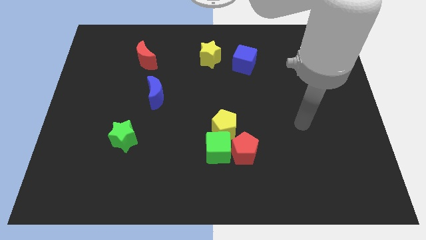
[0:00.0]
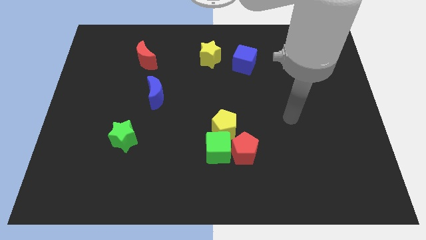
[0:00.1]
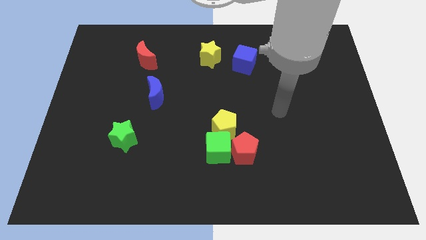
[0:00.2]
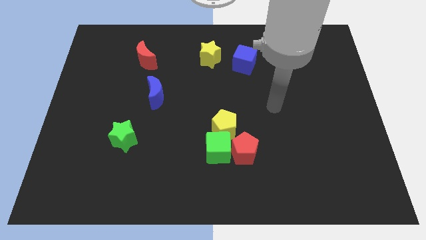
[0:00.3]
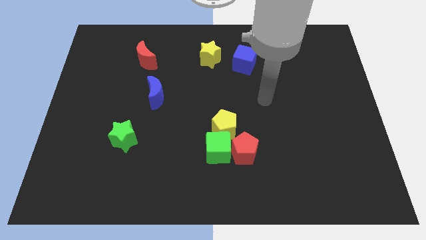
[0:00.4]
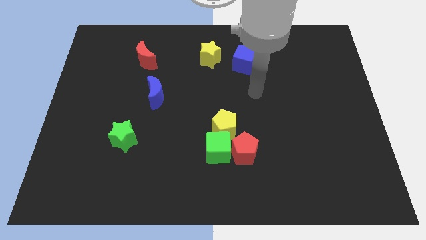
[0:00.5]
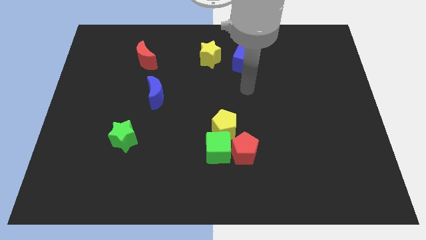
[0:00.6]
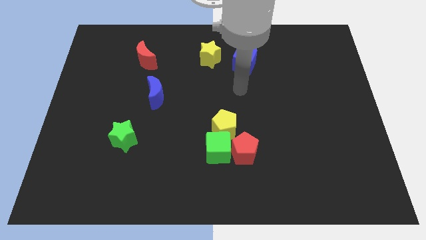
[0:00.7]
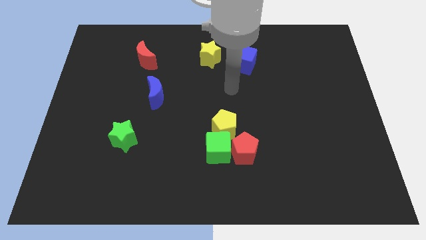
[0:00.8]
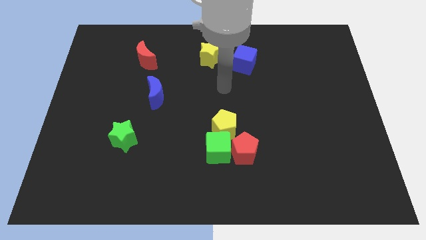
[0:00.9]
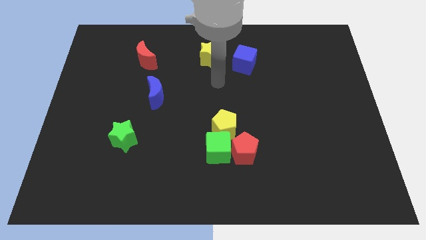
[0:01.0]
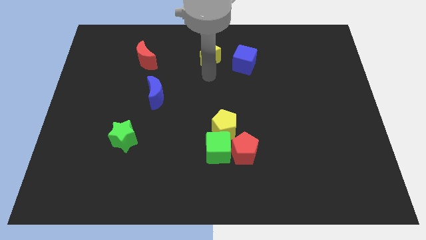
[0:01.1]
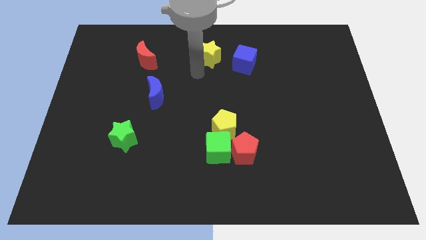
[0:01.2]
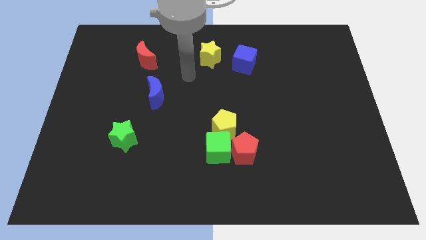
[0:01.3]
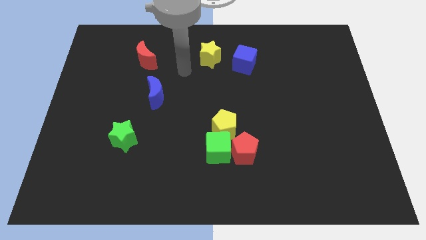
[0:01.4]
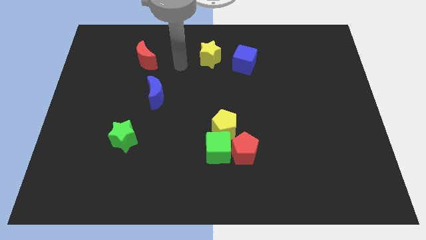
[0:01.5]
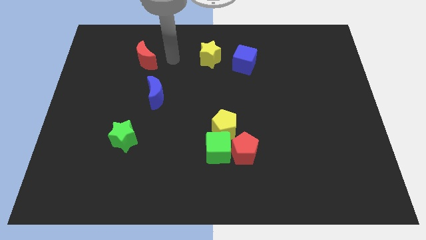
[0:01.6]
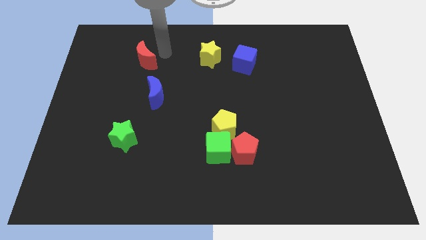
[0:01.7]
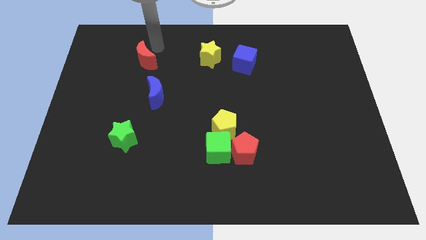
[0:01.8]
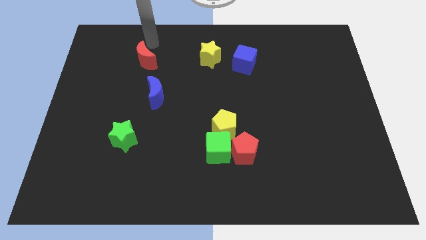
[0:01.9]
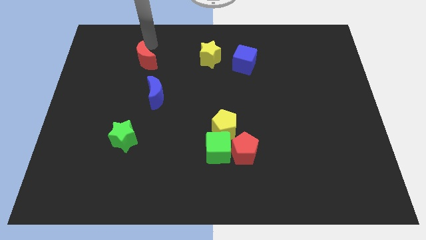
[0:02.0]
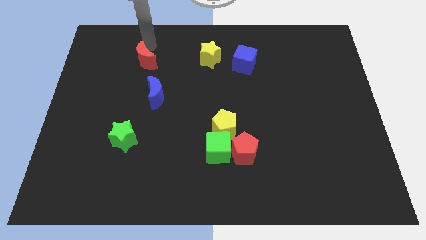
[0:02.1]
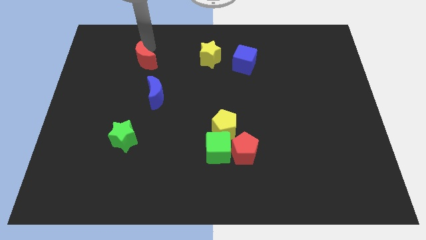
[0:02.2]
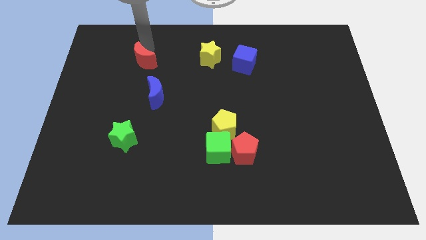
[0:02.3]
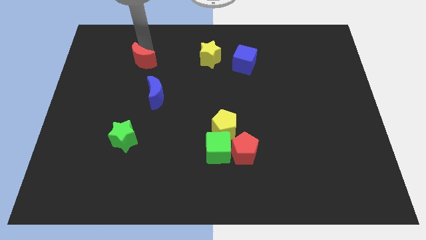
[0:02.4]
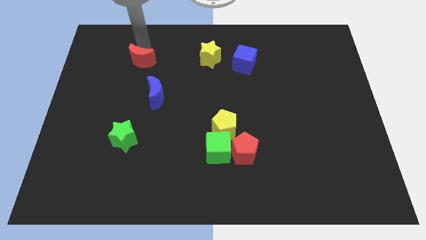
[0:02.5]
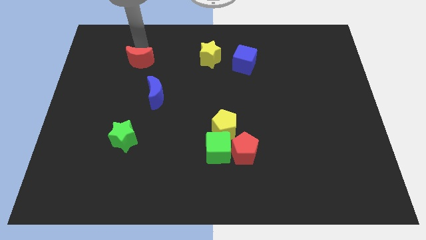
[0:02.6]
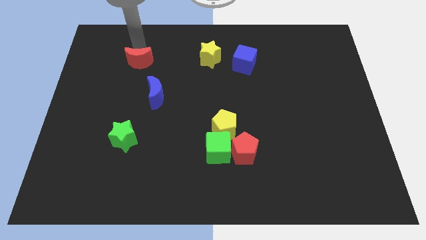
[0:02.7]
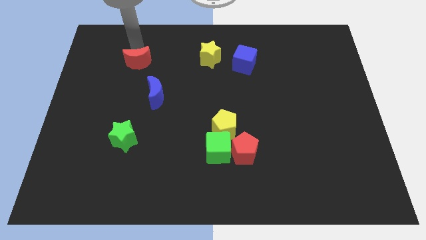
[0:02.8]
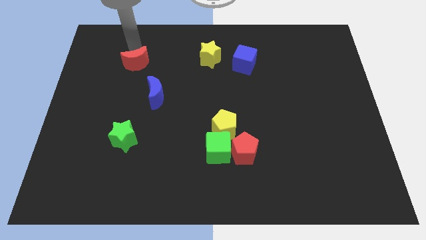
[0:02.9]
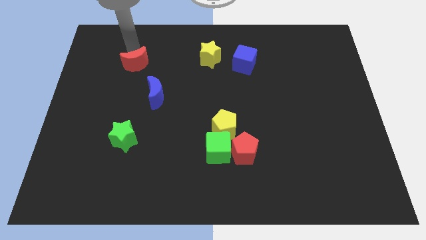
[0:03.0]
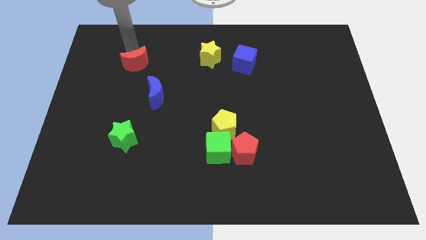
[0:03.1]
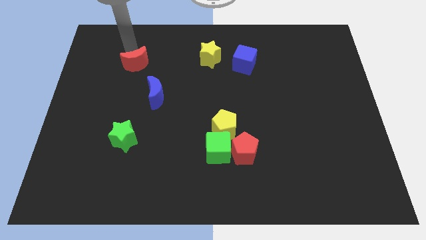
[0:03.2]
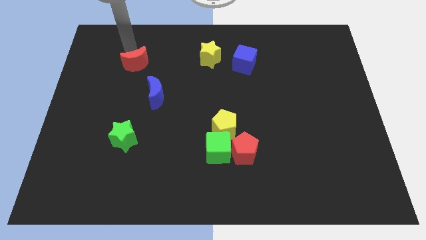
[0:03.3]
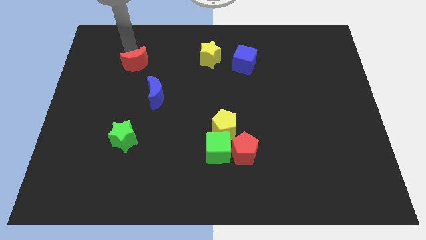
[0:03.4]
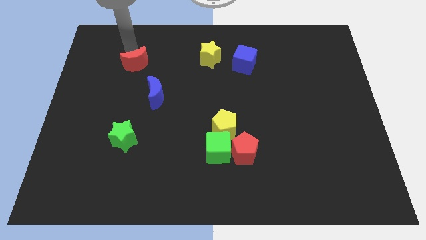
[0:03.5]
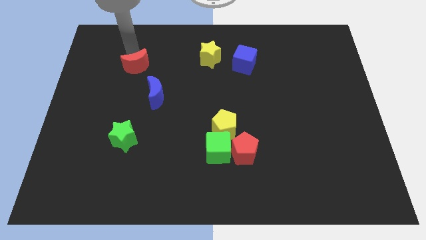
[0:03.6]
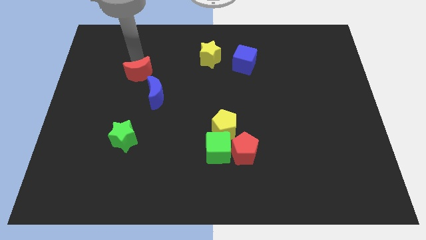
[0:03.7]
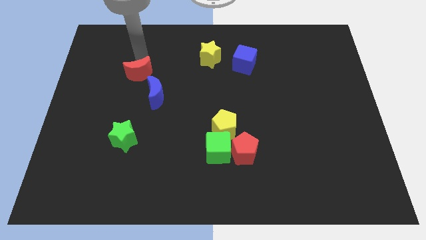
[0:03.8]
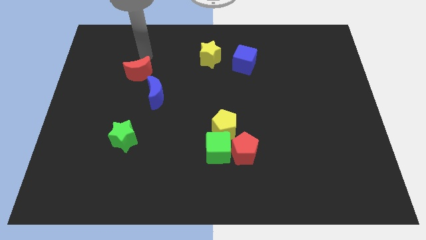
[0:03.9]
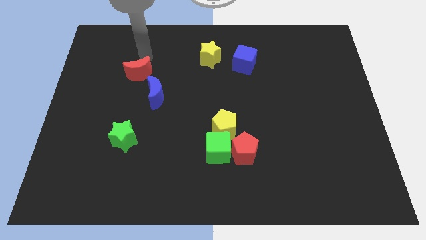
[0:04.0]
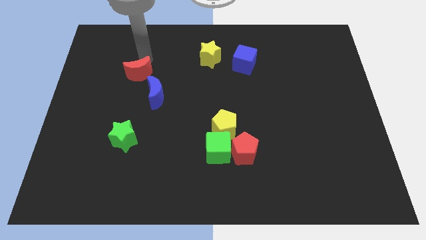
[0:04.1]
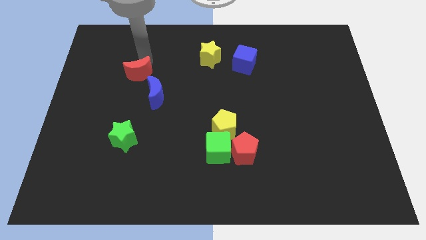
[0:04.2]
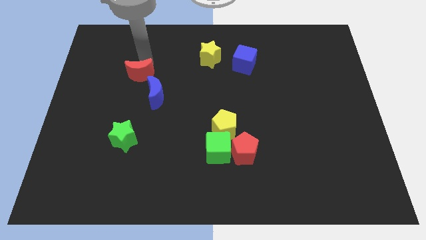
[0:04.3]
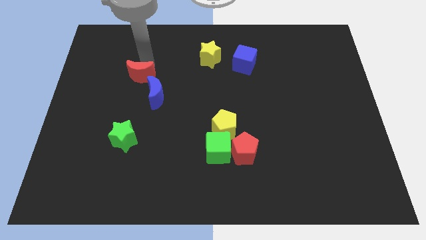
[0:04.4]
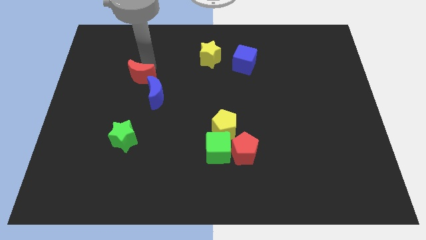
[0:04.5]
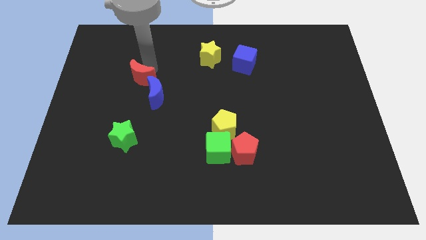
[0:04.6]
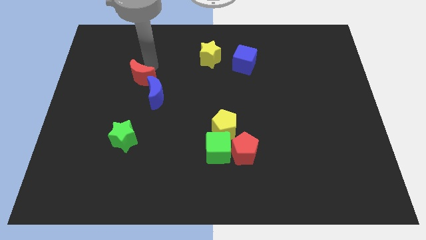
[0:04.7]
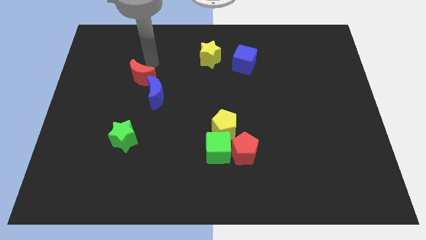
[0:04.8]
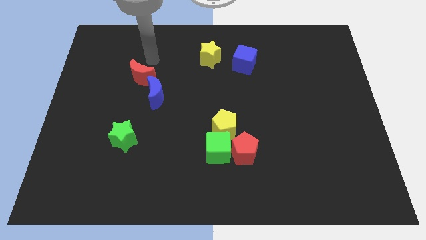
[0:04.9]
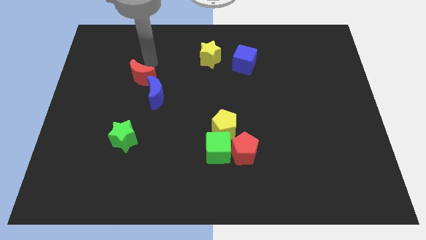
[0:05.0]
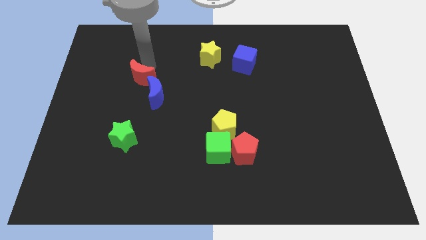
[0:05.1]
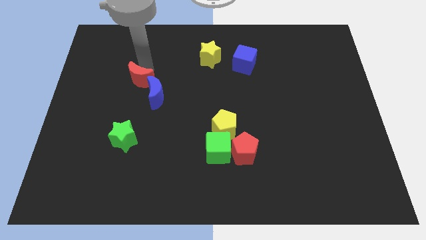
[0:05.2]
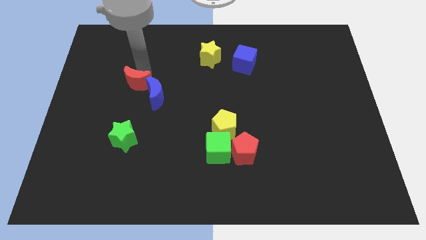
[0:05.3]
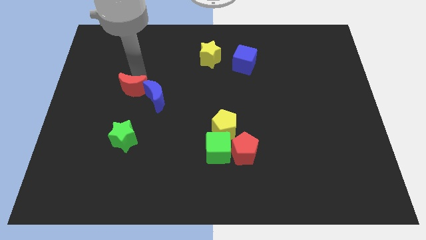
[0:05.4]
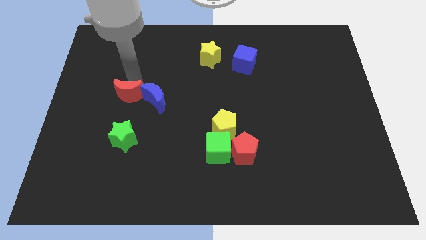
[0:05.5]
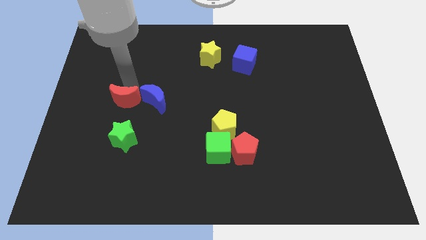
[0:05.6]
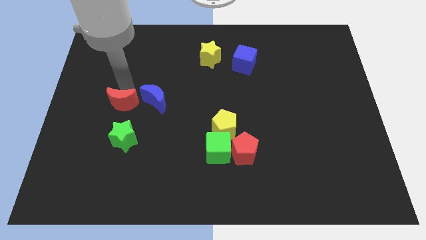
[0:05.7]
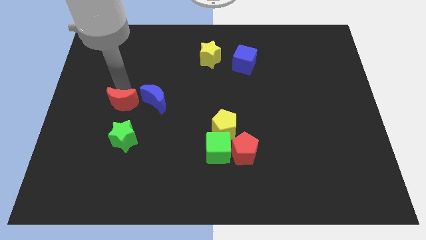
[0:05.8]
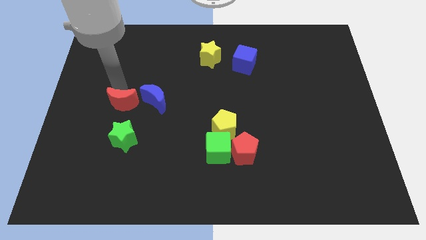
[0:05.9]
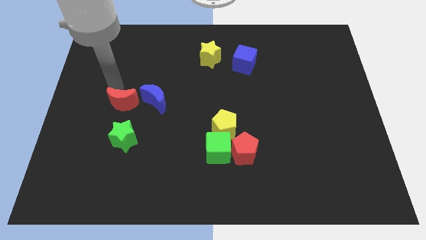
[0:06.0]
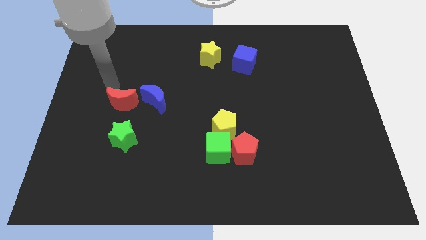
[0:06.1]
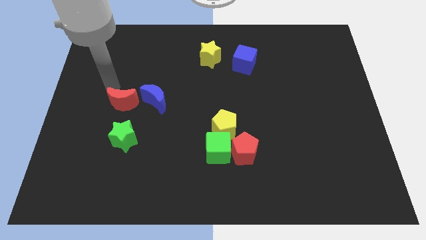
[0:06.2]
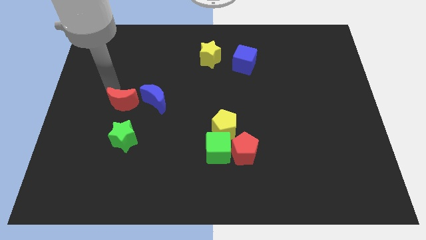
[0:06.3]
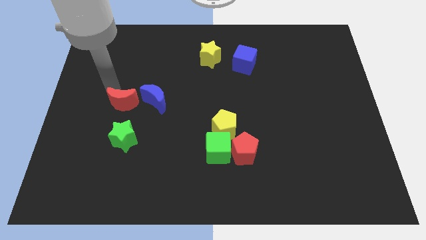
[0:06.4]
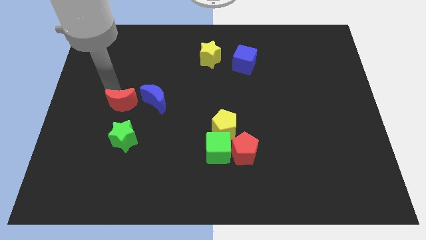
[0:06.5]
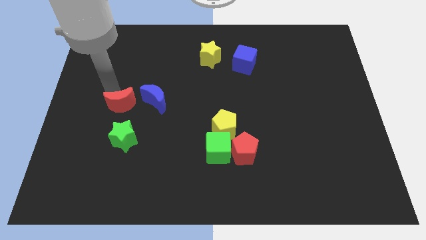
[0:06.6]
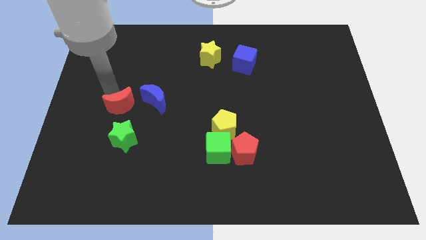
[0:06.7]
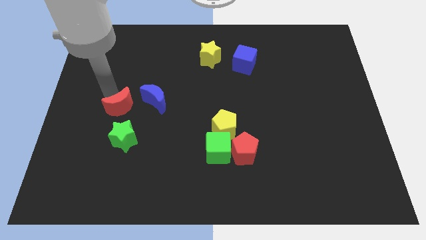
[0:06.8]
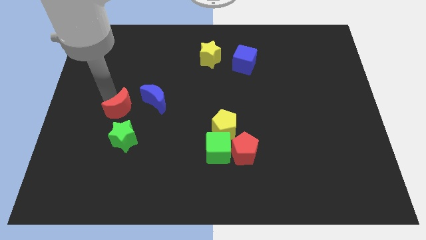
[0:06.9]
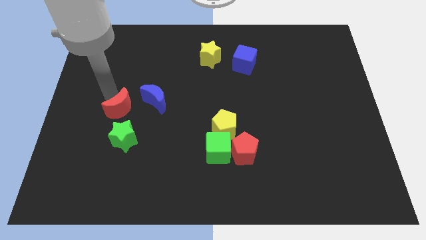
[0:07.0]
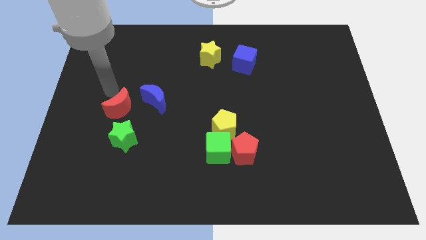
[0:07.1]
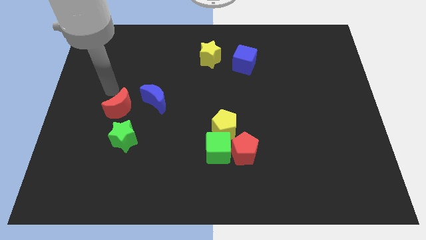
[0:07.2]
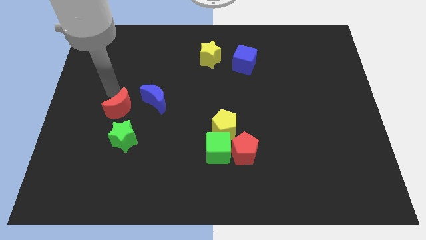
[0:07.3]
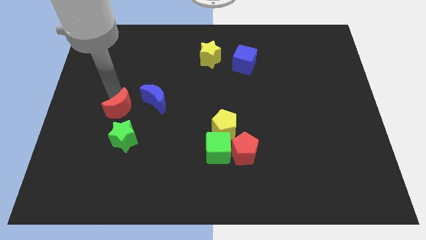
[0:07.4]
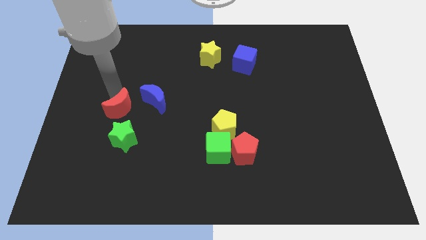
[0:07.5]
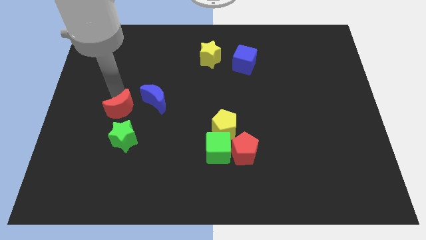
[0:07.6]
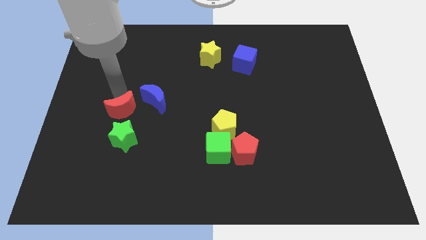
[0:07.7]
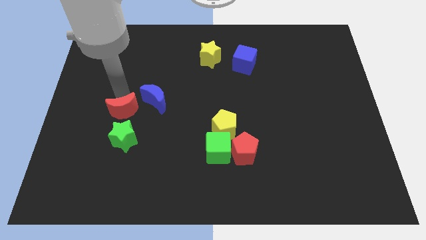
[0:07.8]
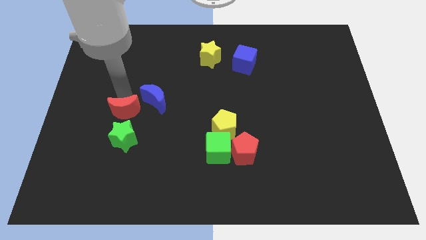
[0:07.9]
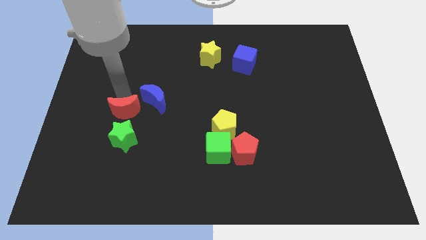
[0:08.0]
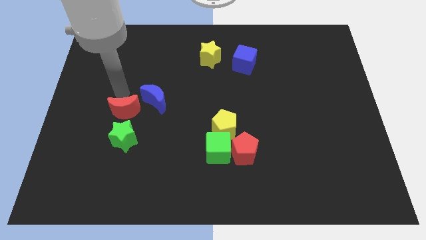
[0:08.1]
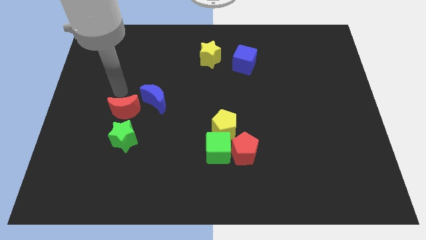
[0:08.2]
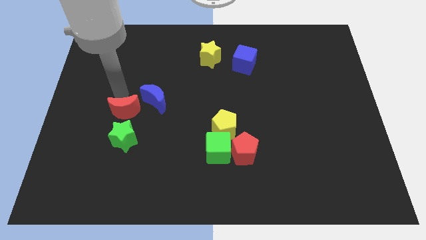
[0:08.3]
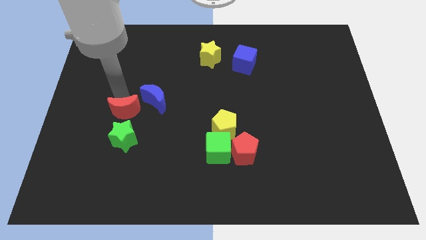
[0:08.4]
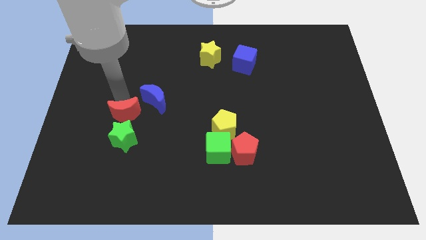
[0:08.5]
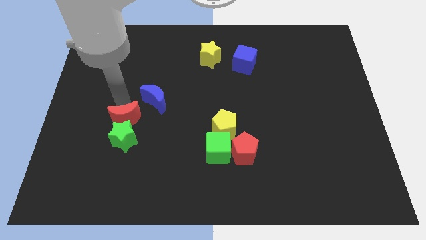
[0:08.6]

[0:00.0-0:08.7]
push the red moon towards the green star
